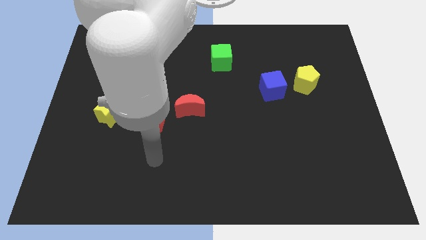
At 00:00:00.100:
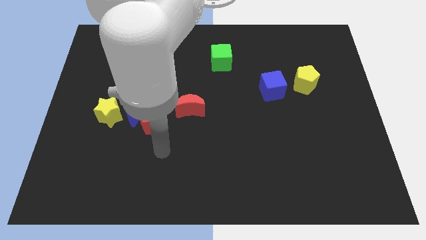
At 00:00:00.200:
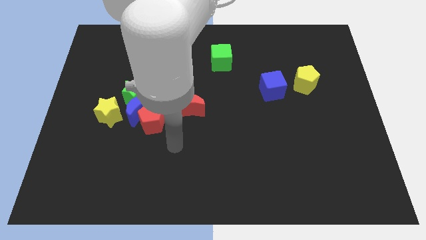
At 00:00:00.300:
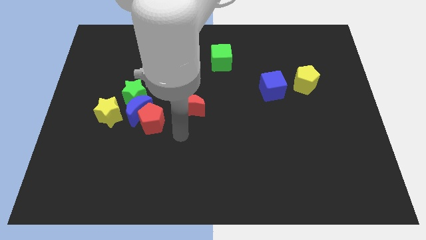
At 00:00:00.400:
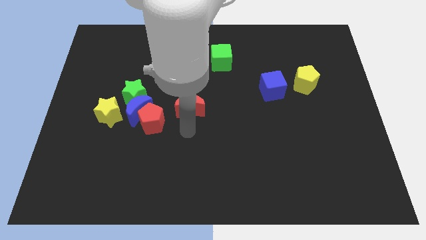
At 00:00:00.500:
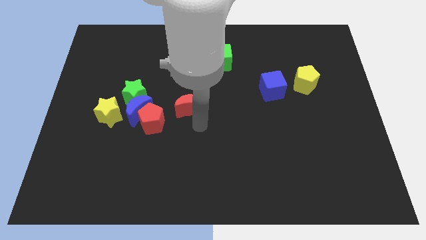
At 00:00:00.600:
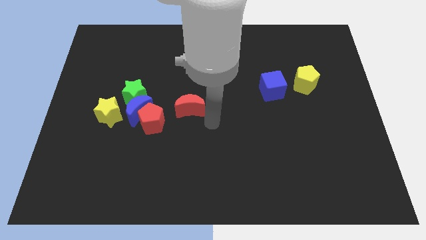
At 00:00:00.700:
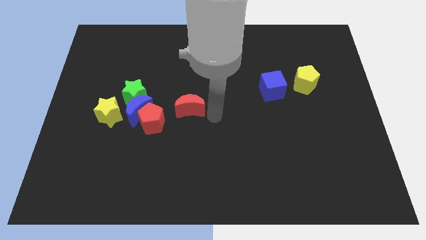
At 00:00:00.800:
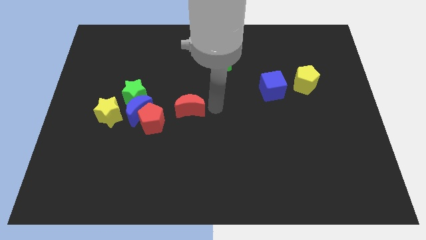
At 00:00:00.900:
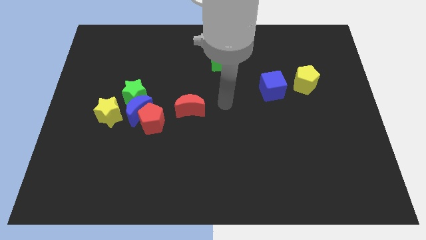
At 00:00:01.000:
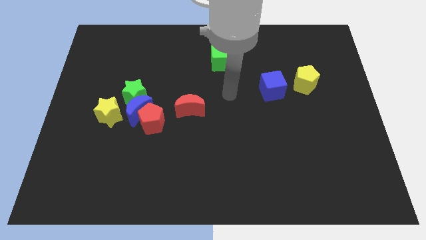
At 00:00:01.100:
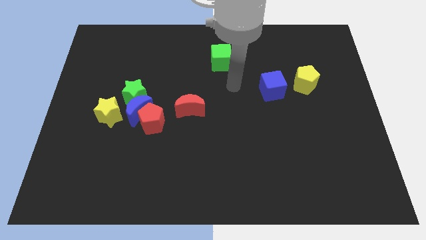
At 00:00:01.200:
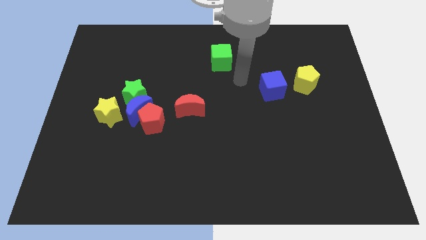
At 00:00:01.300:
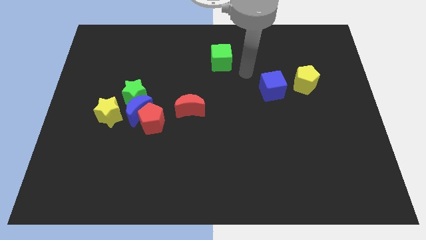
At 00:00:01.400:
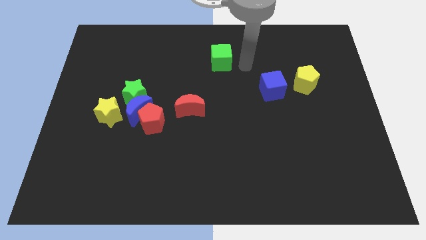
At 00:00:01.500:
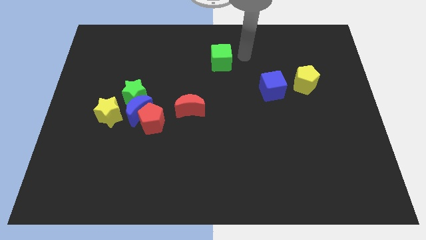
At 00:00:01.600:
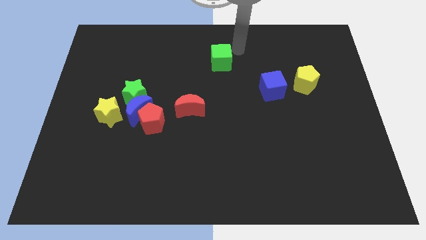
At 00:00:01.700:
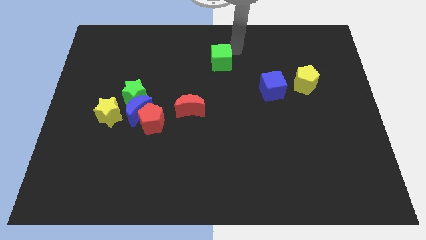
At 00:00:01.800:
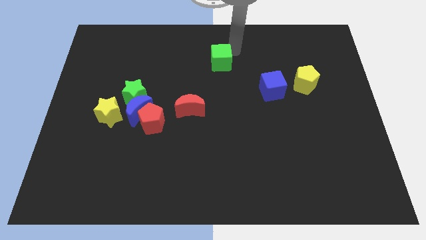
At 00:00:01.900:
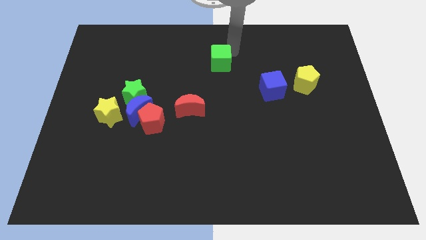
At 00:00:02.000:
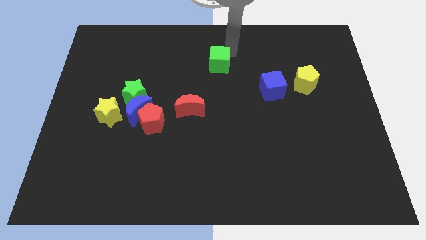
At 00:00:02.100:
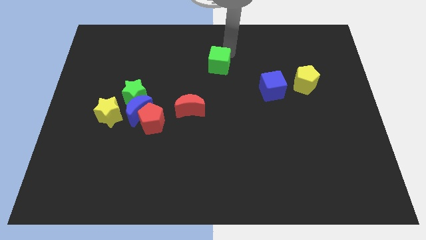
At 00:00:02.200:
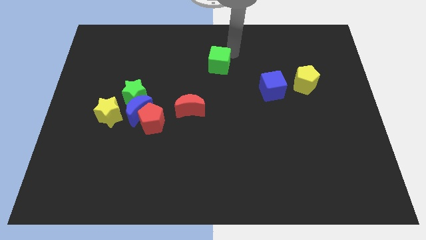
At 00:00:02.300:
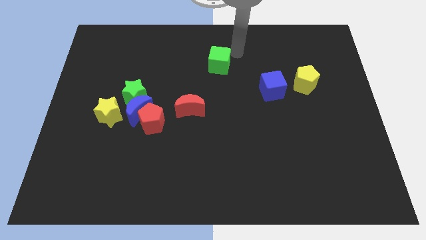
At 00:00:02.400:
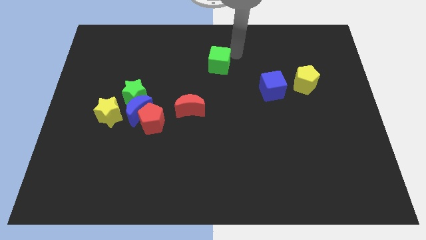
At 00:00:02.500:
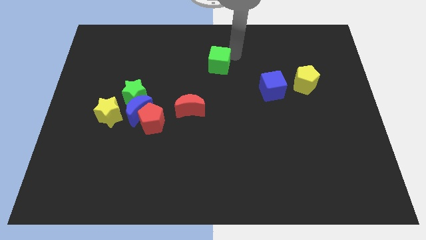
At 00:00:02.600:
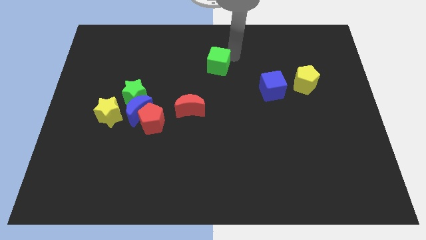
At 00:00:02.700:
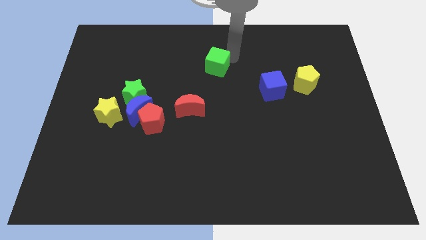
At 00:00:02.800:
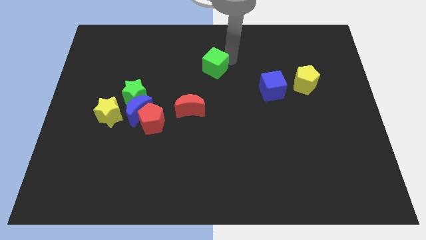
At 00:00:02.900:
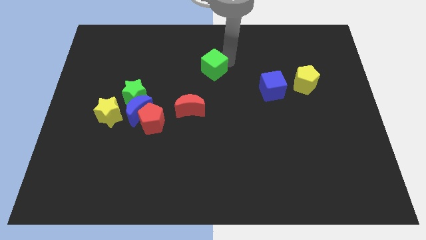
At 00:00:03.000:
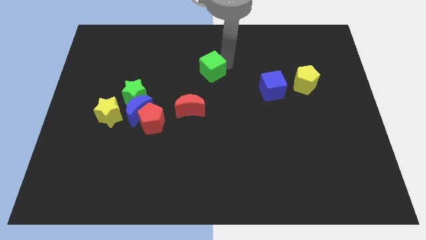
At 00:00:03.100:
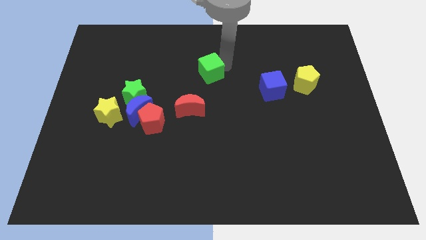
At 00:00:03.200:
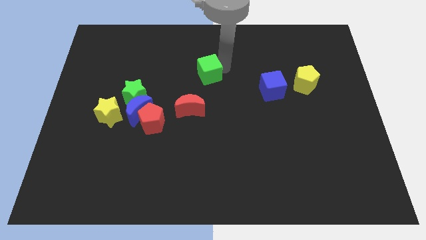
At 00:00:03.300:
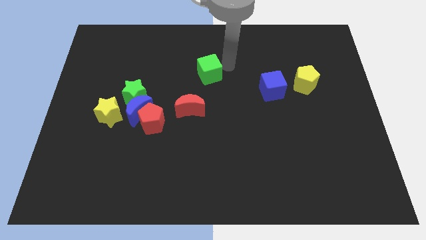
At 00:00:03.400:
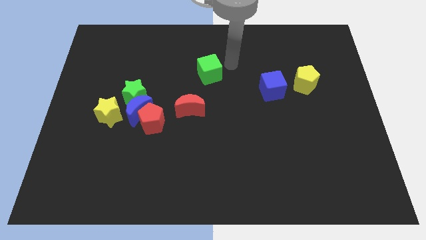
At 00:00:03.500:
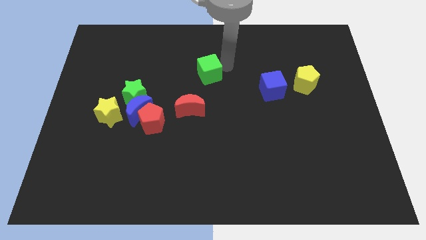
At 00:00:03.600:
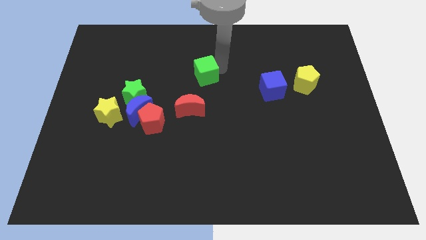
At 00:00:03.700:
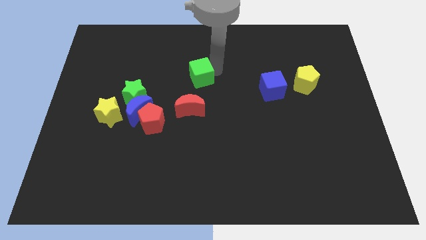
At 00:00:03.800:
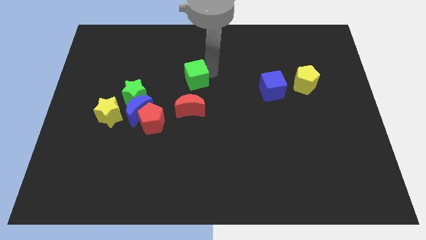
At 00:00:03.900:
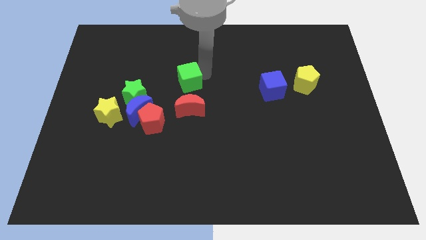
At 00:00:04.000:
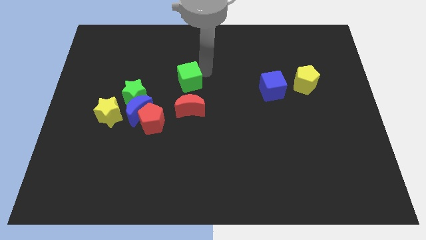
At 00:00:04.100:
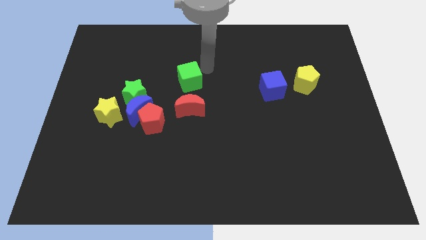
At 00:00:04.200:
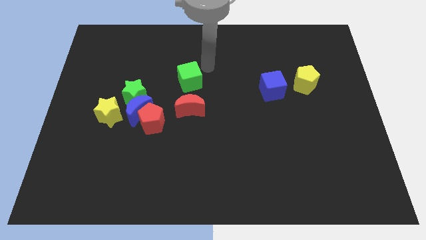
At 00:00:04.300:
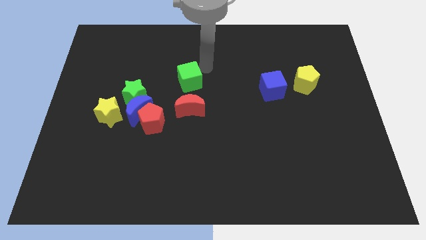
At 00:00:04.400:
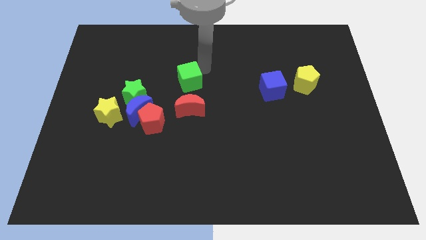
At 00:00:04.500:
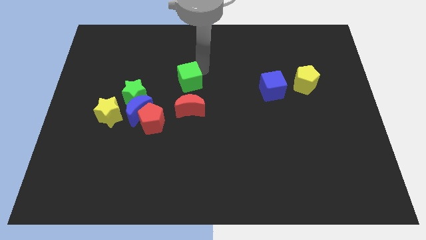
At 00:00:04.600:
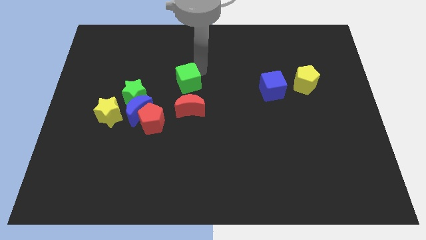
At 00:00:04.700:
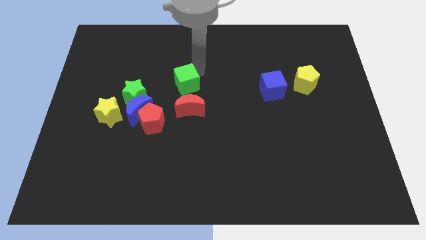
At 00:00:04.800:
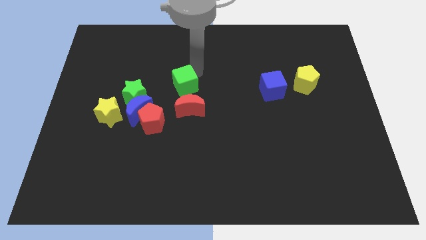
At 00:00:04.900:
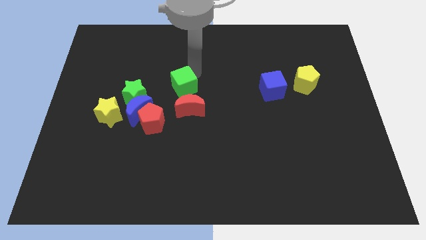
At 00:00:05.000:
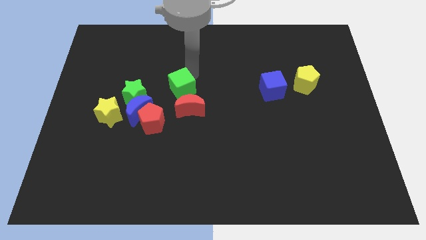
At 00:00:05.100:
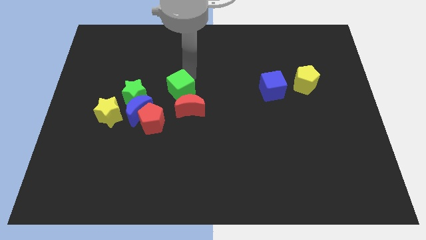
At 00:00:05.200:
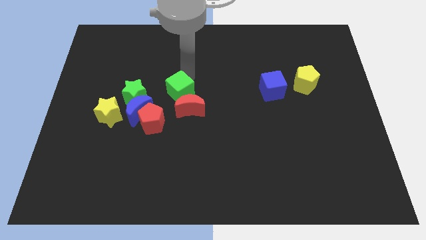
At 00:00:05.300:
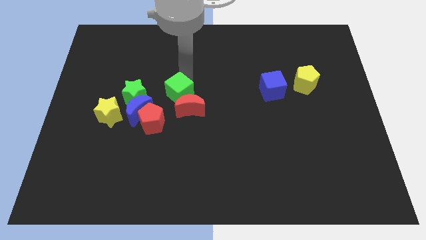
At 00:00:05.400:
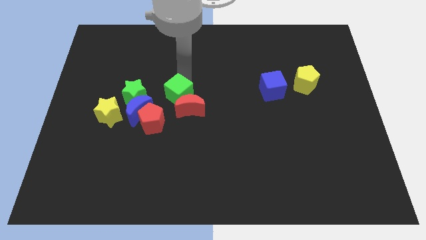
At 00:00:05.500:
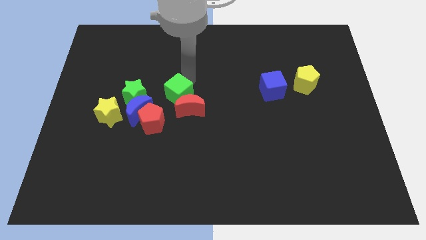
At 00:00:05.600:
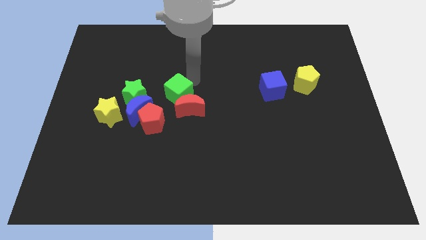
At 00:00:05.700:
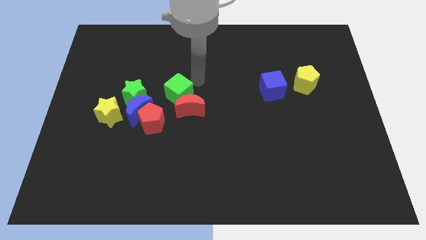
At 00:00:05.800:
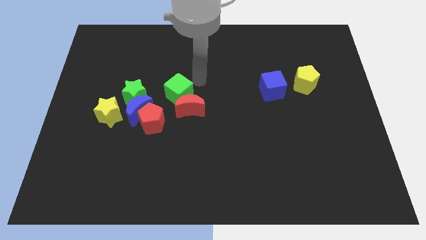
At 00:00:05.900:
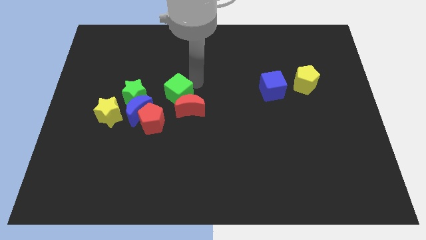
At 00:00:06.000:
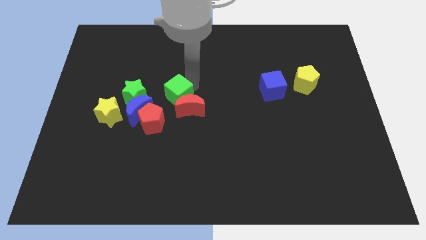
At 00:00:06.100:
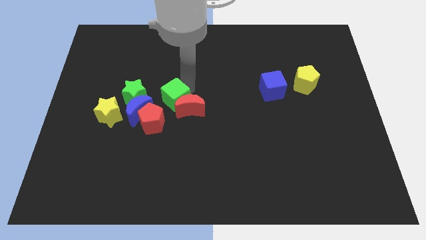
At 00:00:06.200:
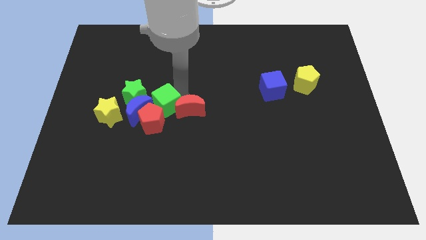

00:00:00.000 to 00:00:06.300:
push the green cube next to the red pentagon
